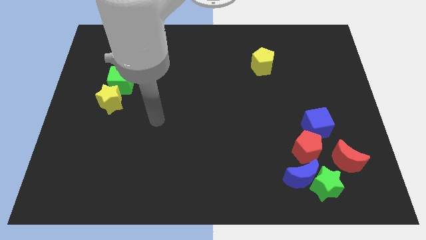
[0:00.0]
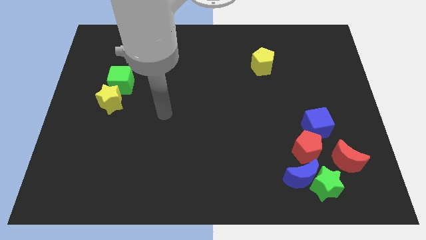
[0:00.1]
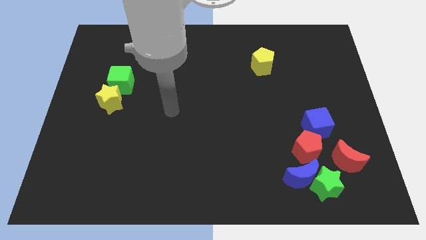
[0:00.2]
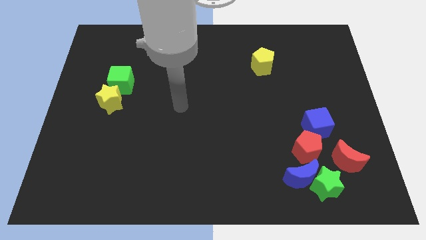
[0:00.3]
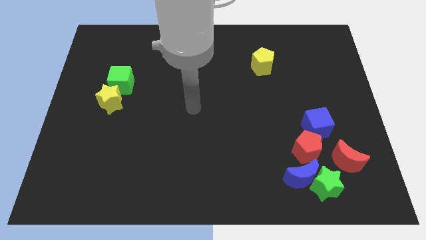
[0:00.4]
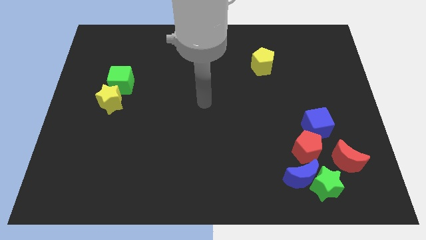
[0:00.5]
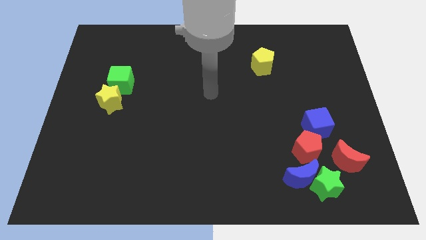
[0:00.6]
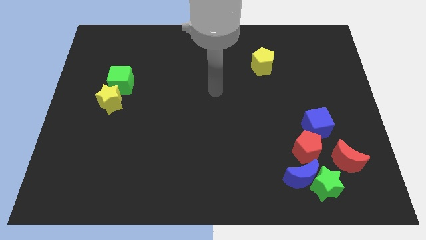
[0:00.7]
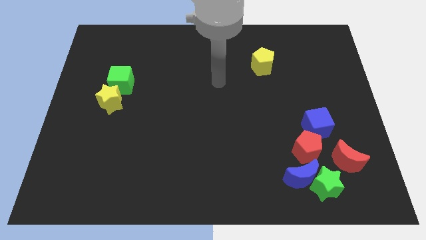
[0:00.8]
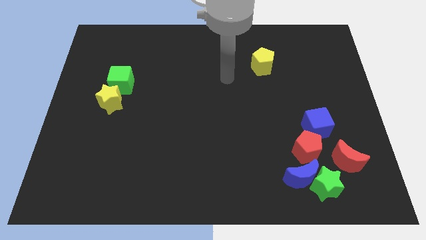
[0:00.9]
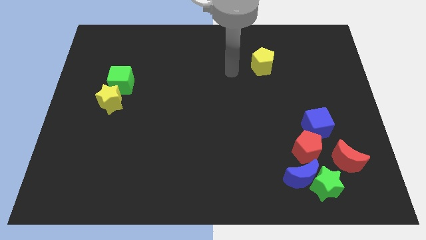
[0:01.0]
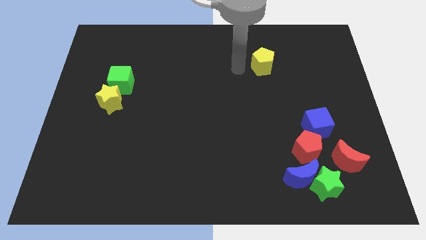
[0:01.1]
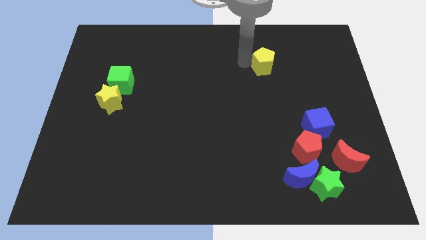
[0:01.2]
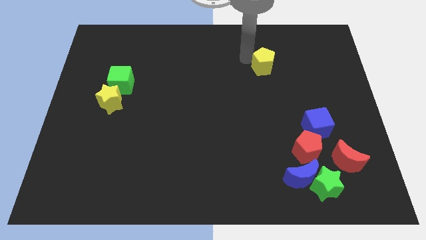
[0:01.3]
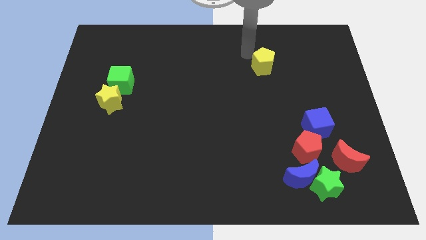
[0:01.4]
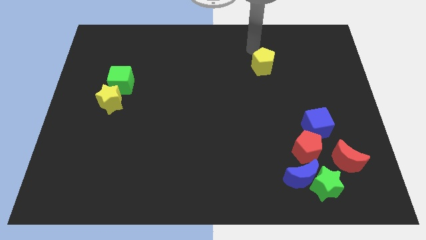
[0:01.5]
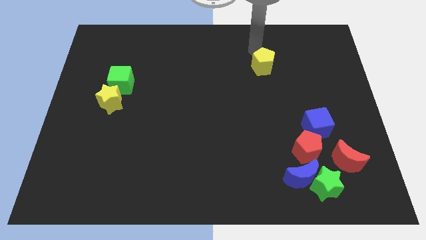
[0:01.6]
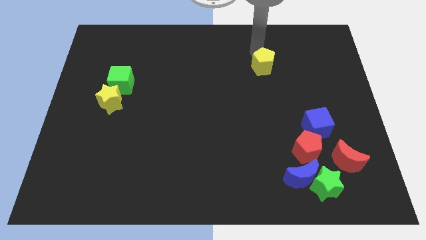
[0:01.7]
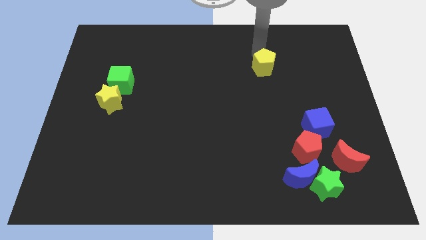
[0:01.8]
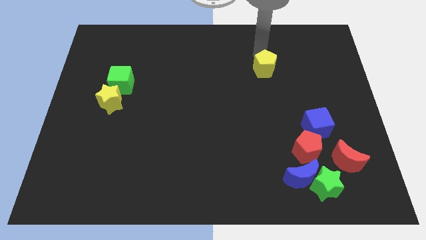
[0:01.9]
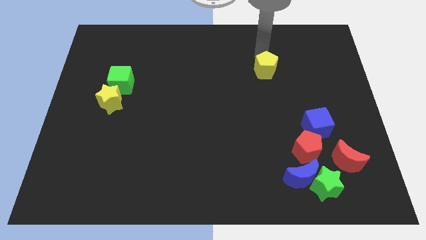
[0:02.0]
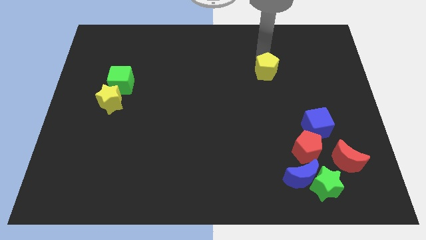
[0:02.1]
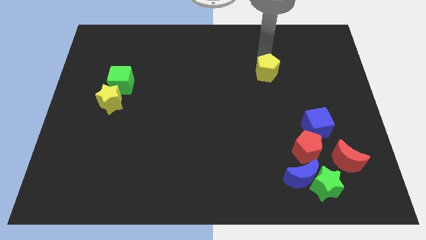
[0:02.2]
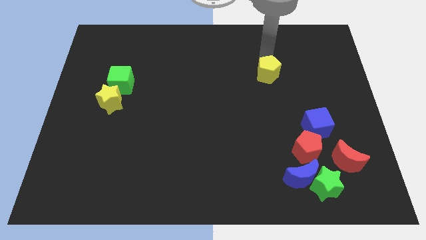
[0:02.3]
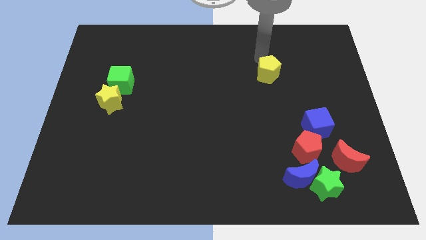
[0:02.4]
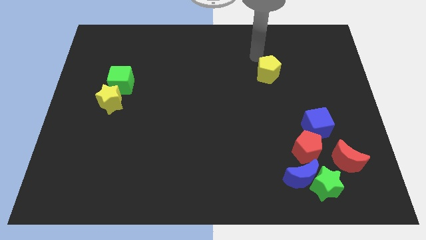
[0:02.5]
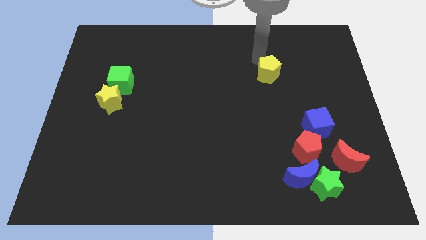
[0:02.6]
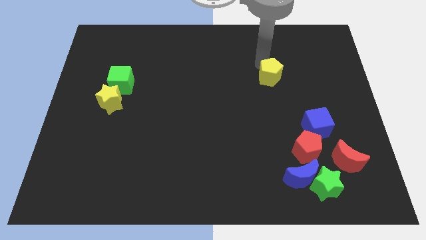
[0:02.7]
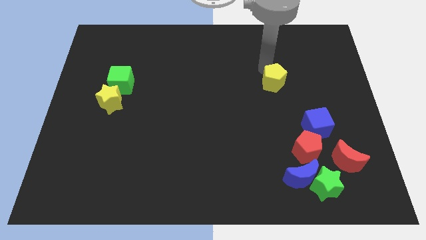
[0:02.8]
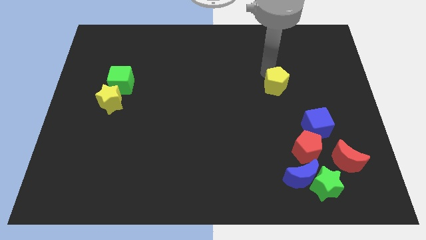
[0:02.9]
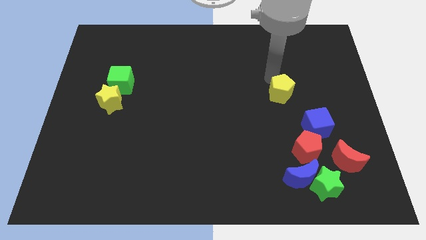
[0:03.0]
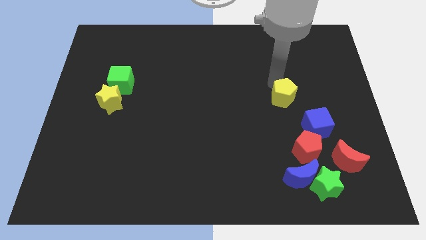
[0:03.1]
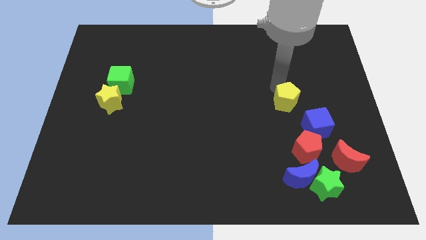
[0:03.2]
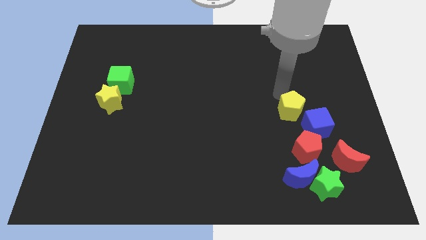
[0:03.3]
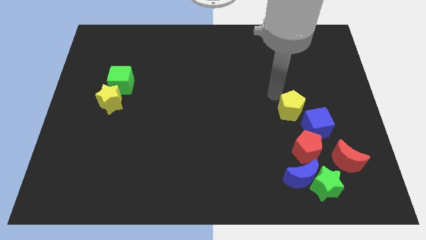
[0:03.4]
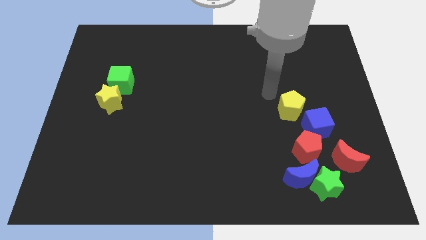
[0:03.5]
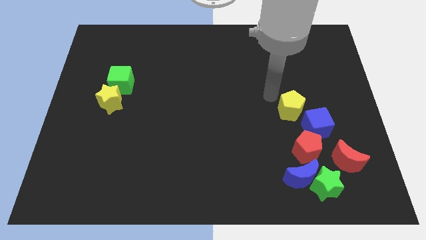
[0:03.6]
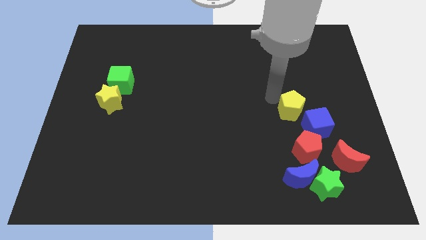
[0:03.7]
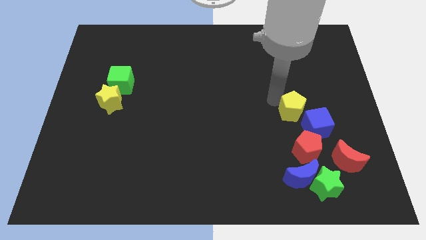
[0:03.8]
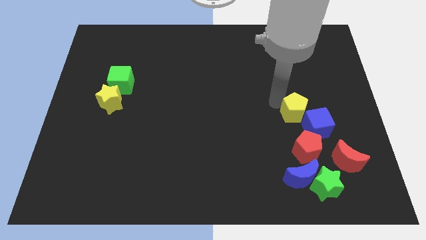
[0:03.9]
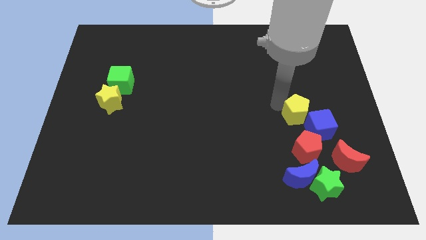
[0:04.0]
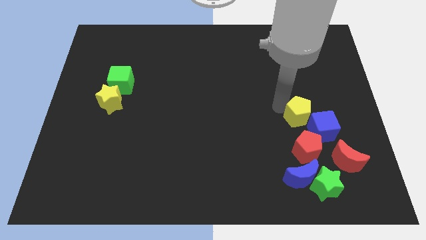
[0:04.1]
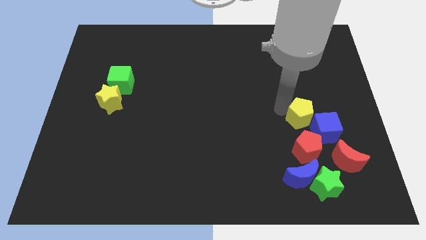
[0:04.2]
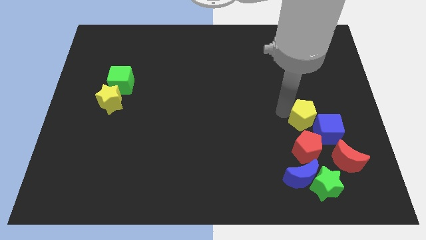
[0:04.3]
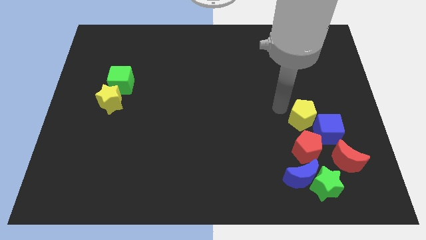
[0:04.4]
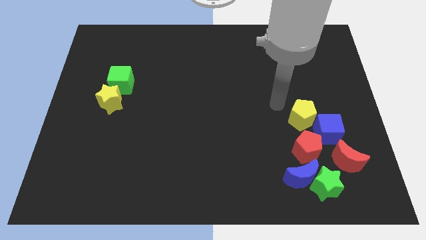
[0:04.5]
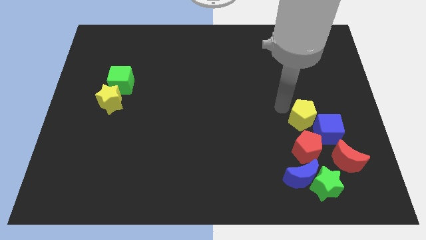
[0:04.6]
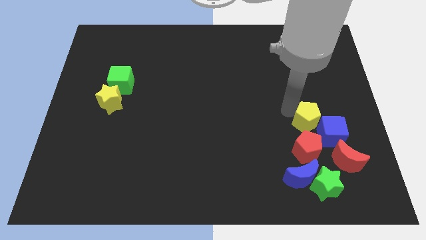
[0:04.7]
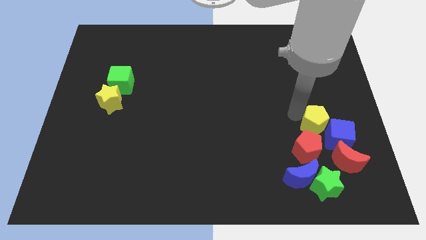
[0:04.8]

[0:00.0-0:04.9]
slide the yellow pentagon close to the blue cube

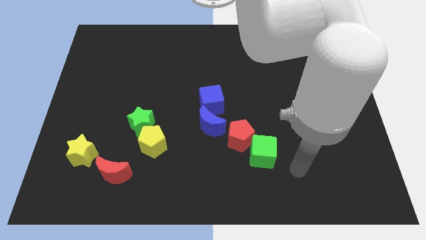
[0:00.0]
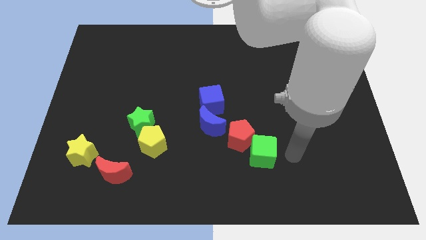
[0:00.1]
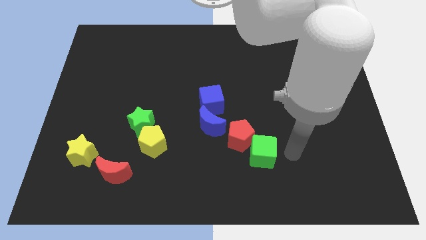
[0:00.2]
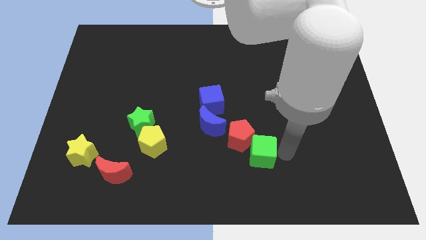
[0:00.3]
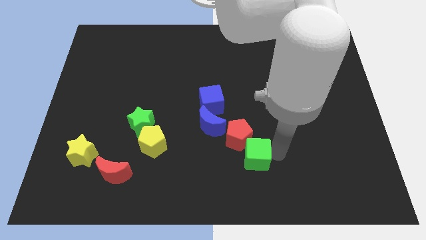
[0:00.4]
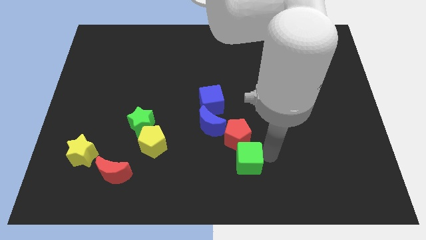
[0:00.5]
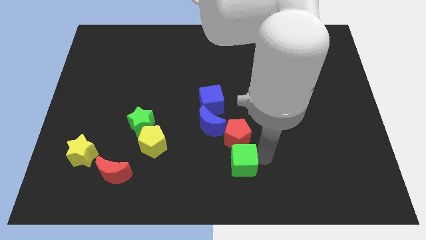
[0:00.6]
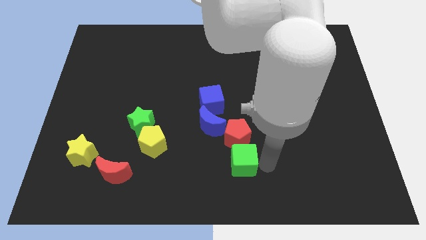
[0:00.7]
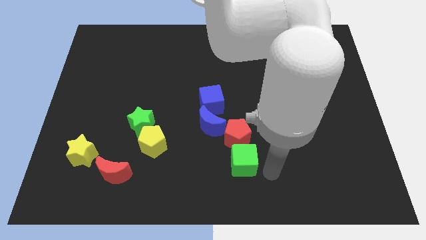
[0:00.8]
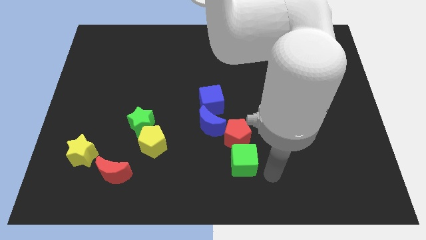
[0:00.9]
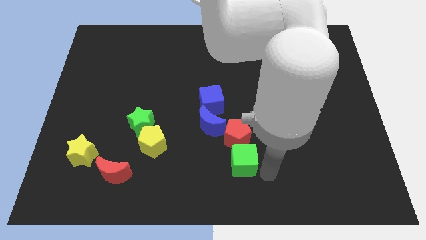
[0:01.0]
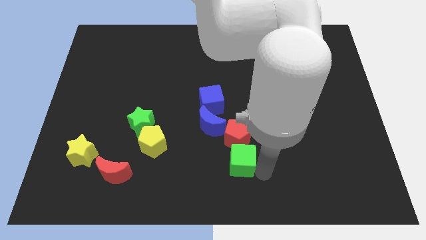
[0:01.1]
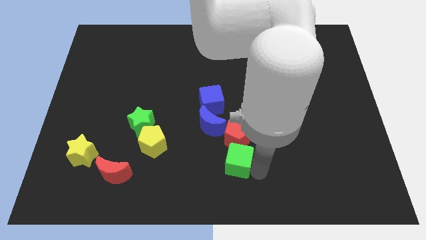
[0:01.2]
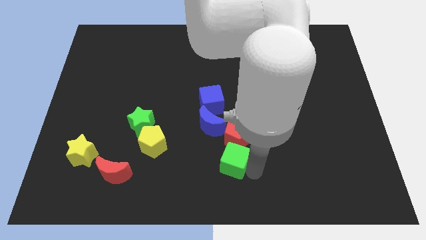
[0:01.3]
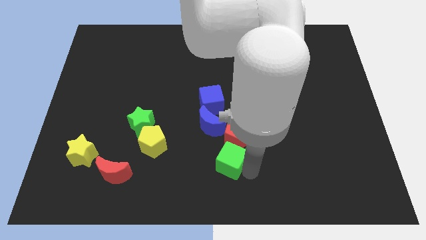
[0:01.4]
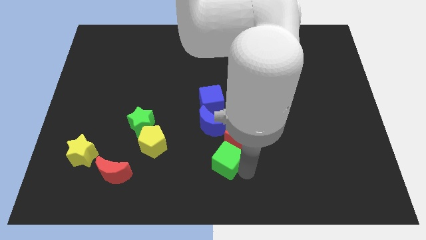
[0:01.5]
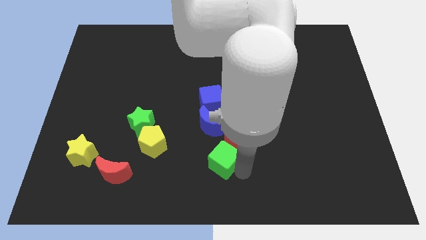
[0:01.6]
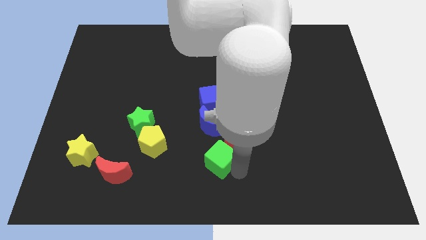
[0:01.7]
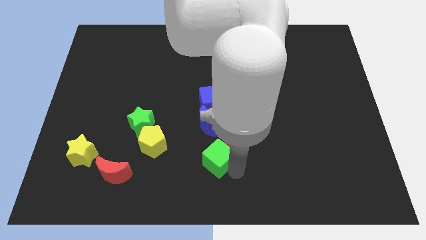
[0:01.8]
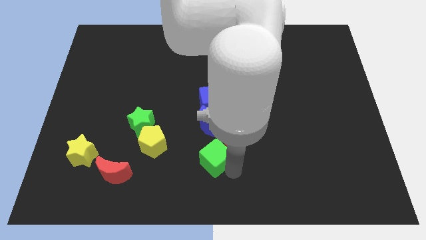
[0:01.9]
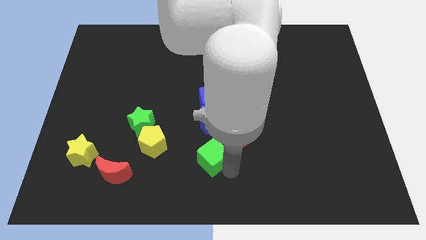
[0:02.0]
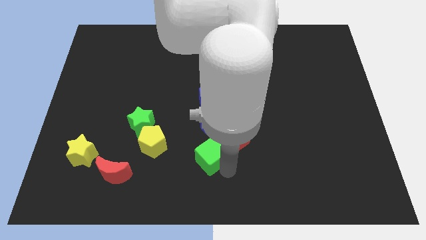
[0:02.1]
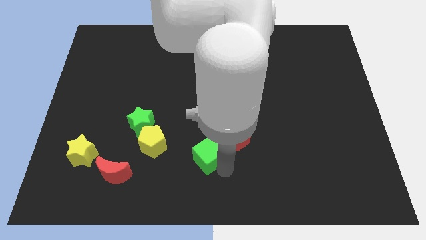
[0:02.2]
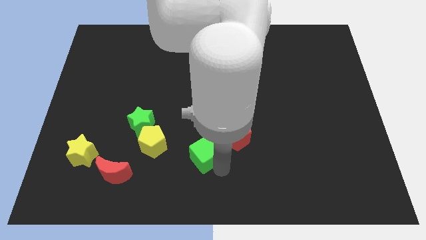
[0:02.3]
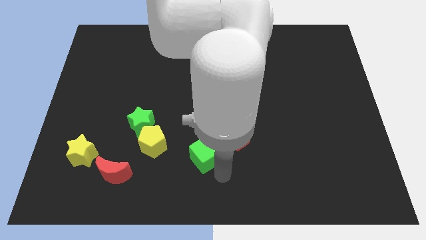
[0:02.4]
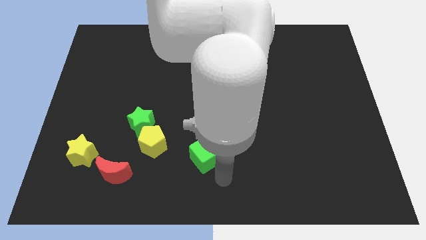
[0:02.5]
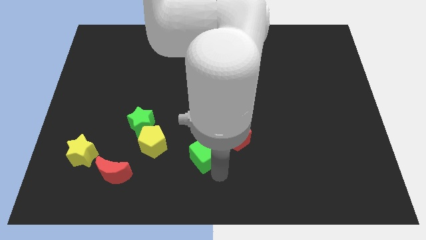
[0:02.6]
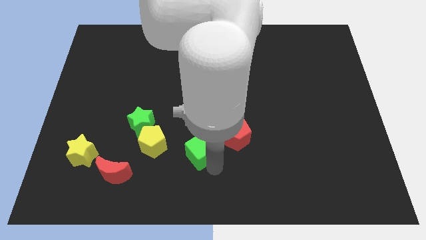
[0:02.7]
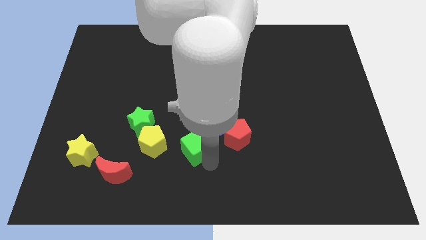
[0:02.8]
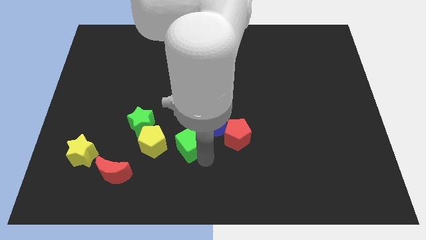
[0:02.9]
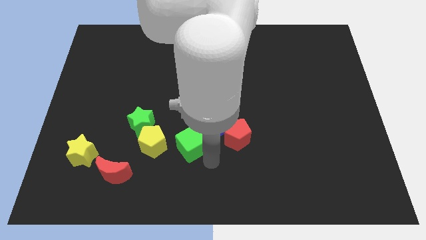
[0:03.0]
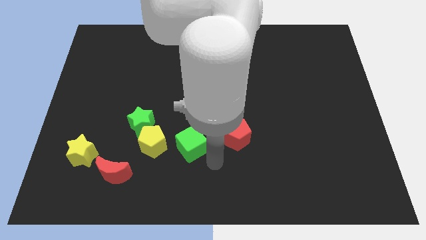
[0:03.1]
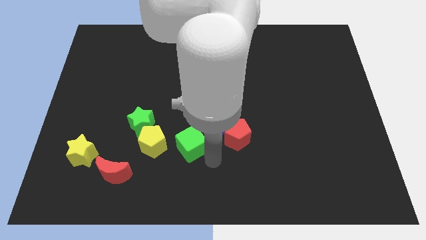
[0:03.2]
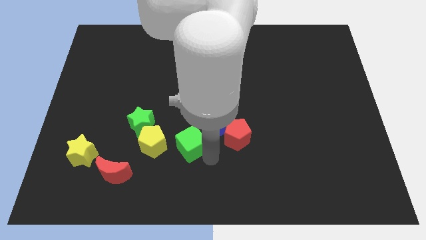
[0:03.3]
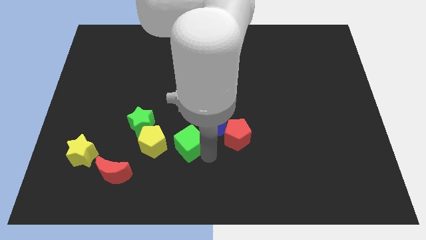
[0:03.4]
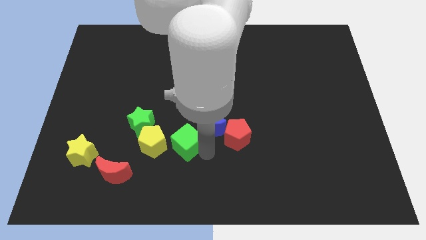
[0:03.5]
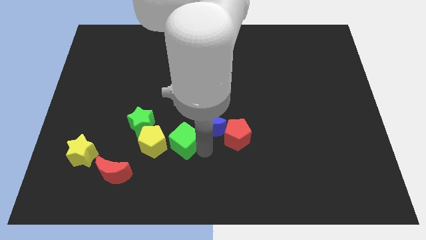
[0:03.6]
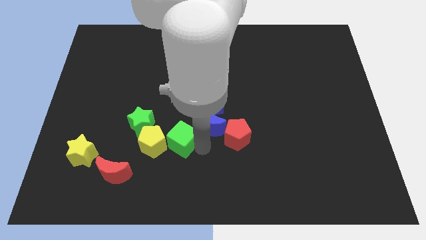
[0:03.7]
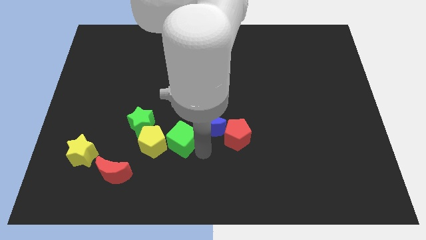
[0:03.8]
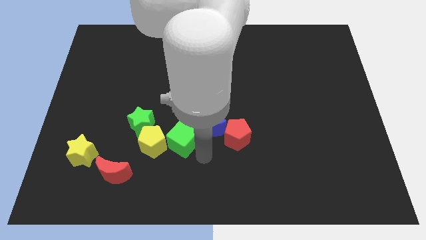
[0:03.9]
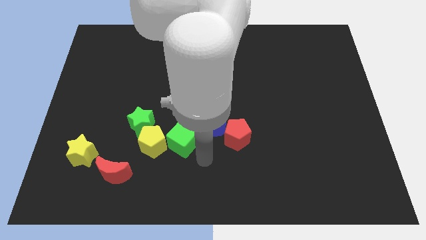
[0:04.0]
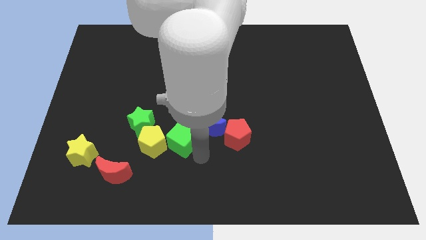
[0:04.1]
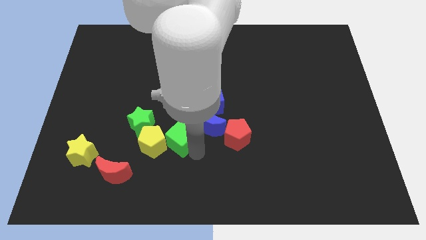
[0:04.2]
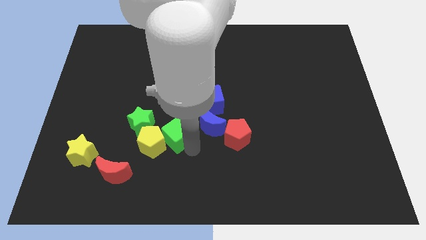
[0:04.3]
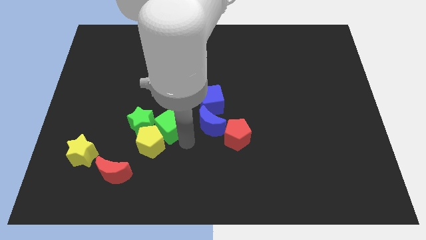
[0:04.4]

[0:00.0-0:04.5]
move the green cube next to the green star
